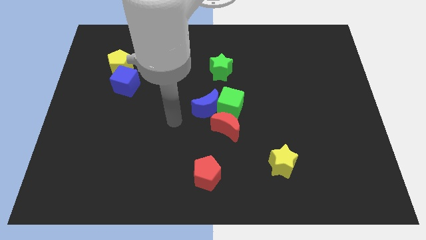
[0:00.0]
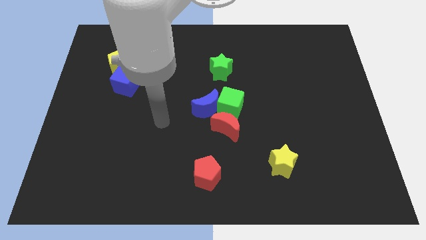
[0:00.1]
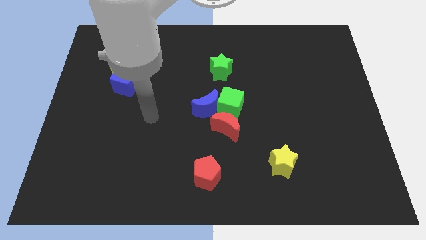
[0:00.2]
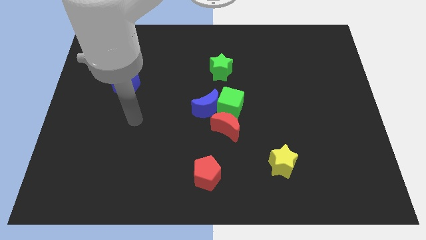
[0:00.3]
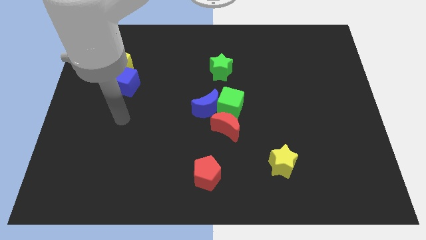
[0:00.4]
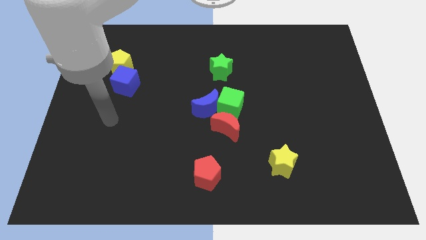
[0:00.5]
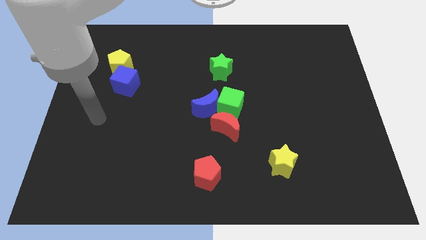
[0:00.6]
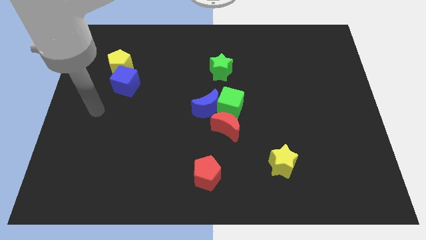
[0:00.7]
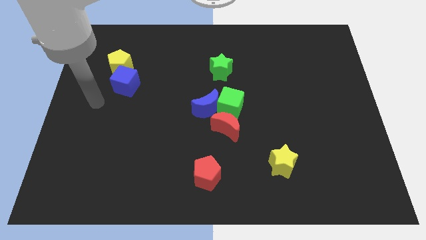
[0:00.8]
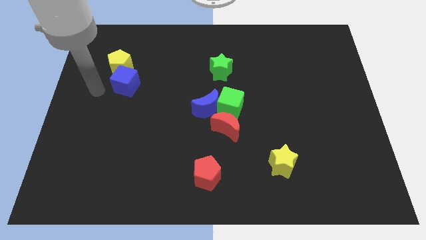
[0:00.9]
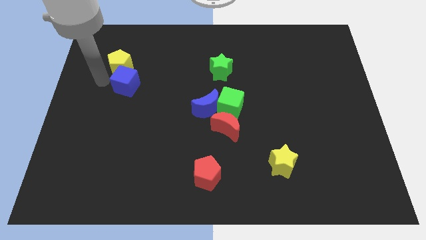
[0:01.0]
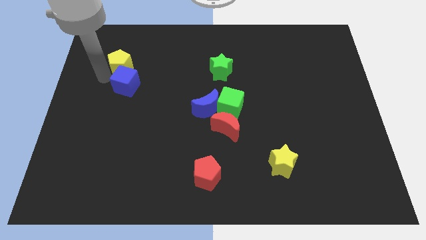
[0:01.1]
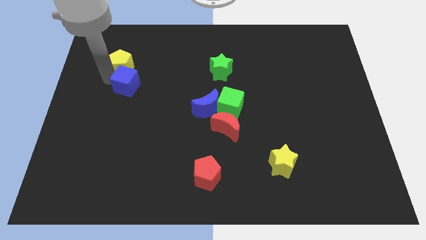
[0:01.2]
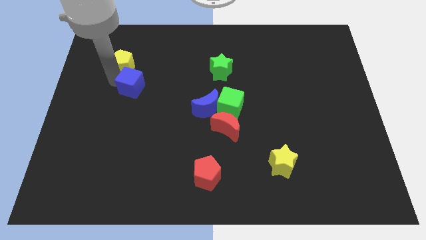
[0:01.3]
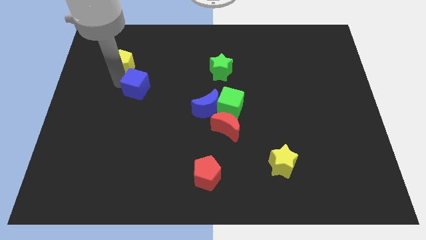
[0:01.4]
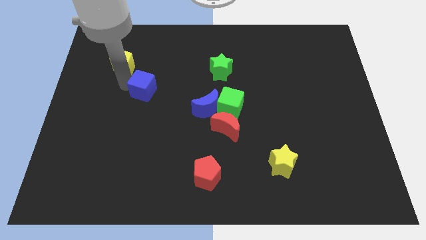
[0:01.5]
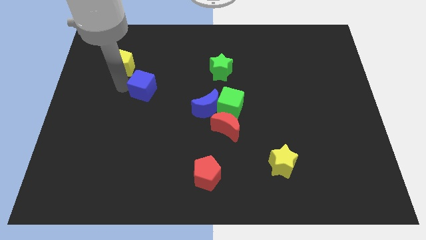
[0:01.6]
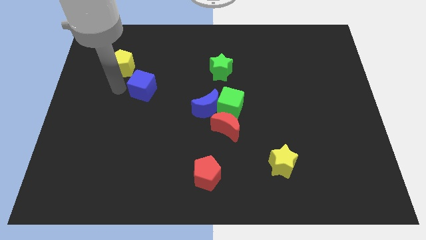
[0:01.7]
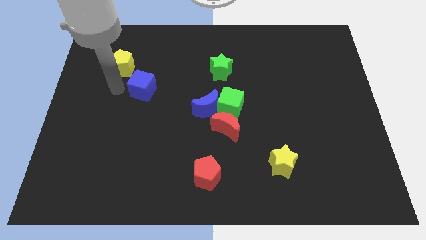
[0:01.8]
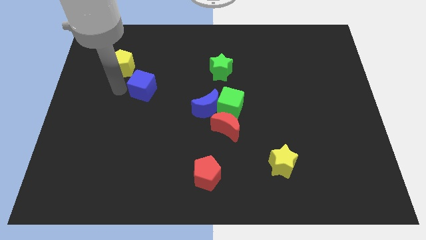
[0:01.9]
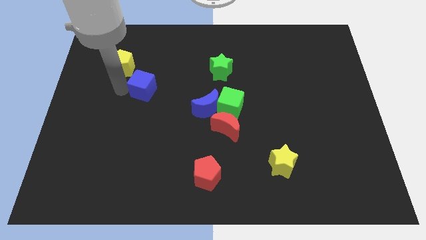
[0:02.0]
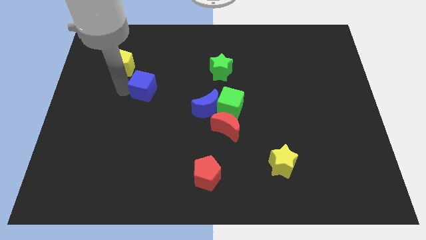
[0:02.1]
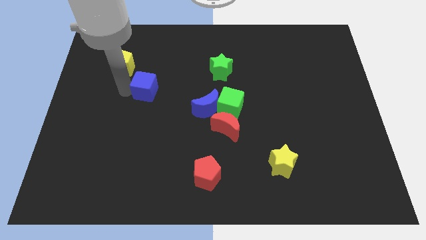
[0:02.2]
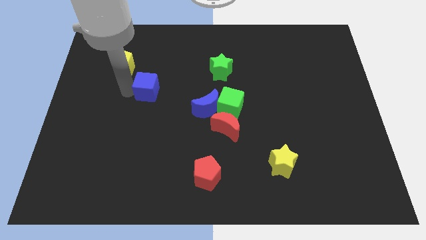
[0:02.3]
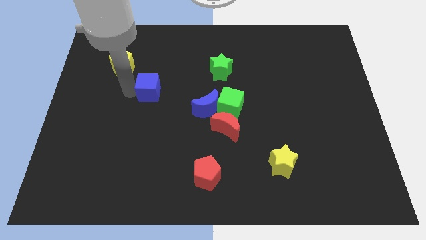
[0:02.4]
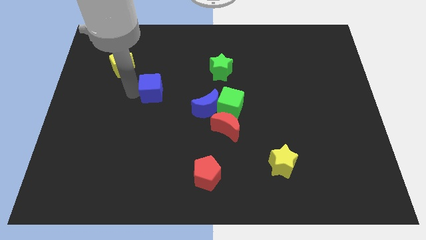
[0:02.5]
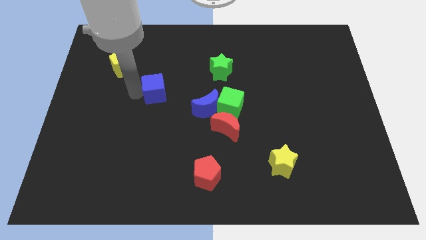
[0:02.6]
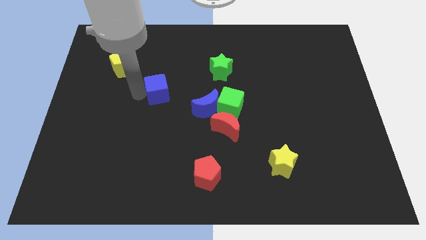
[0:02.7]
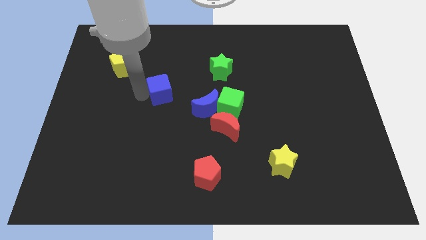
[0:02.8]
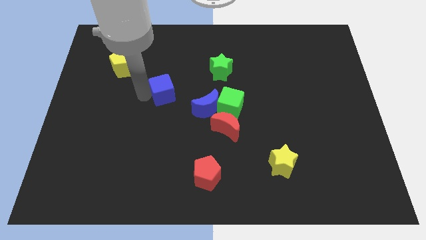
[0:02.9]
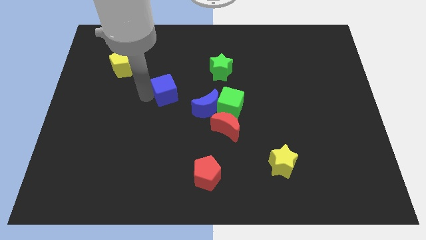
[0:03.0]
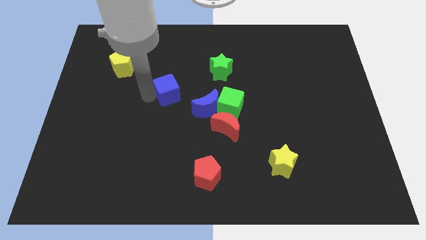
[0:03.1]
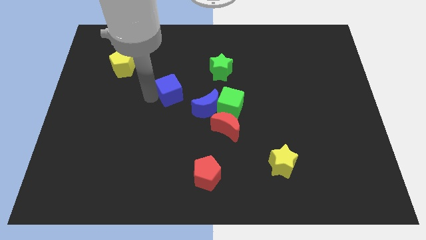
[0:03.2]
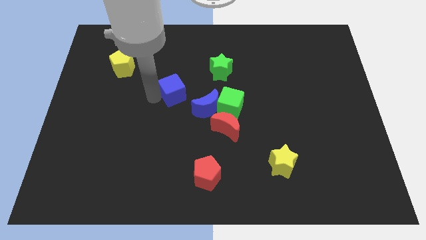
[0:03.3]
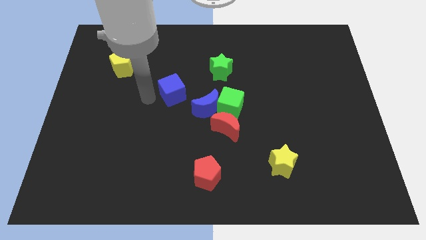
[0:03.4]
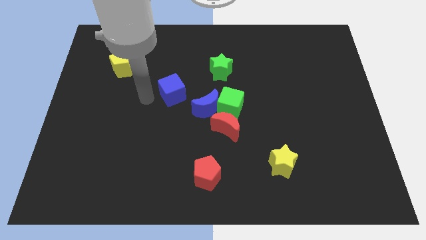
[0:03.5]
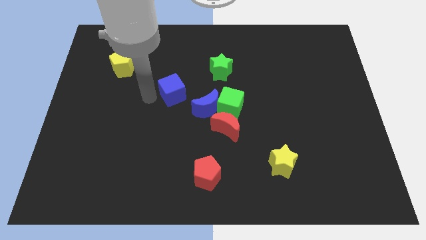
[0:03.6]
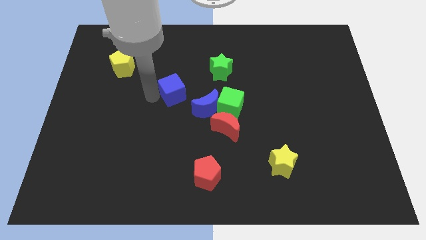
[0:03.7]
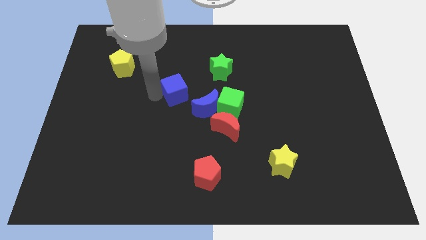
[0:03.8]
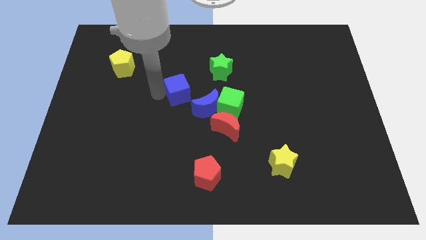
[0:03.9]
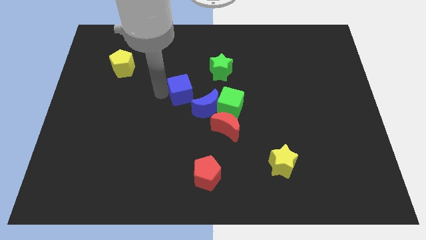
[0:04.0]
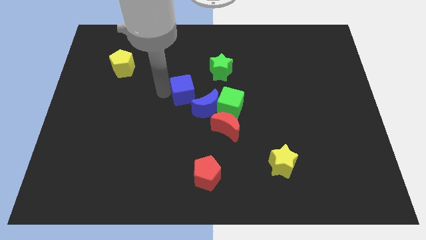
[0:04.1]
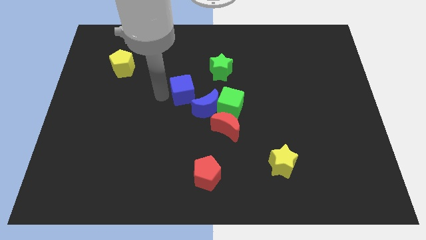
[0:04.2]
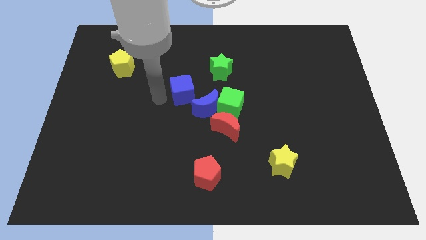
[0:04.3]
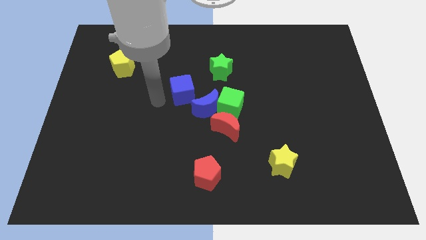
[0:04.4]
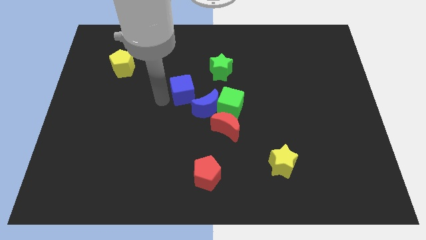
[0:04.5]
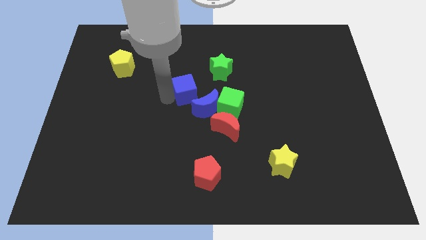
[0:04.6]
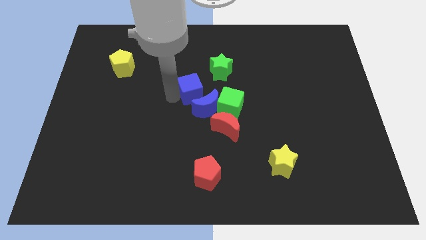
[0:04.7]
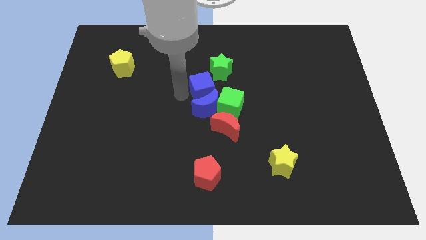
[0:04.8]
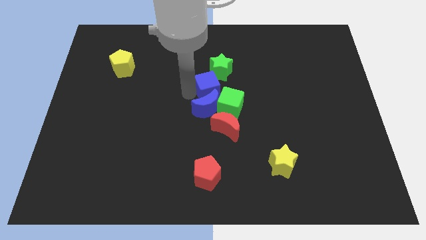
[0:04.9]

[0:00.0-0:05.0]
move the blue cube to the right

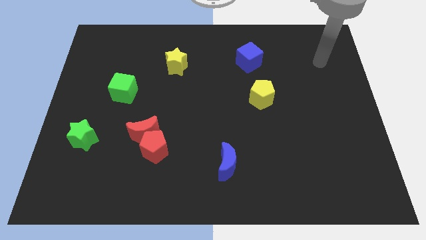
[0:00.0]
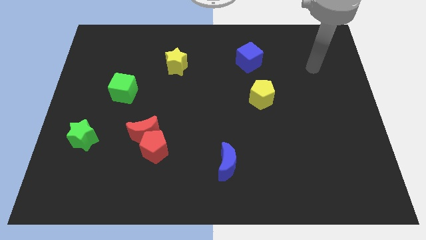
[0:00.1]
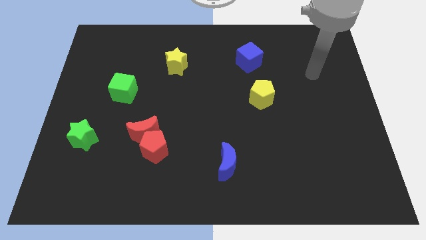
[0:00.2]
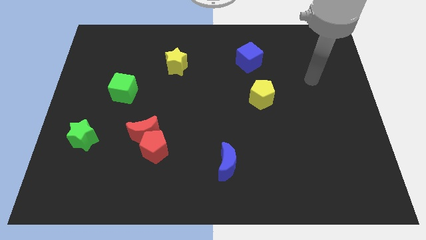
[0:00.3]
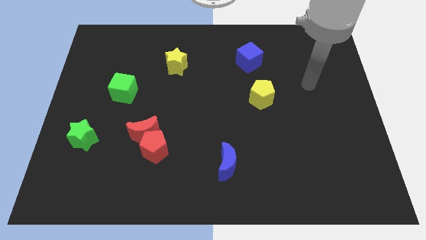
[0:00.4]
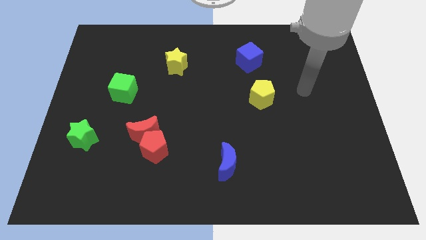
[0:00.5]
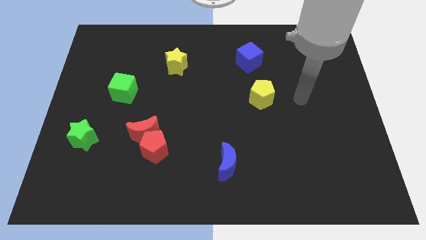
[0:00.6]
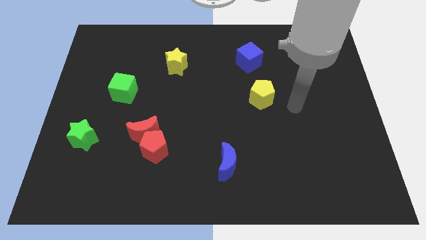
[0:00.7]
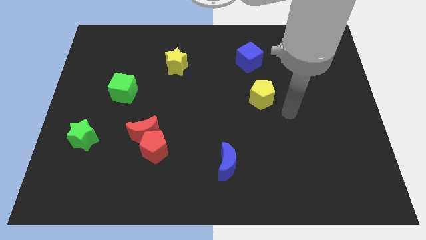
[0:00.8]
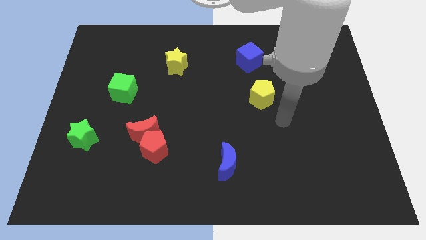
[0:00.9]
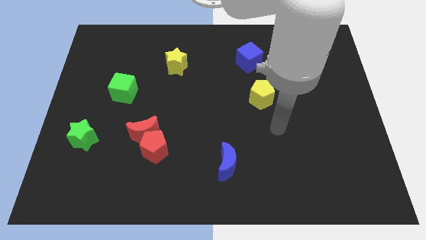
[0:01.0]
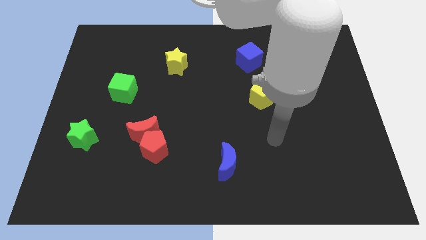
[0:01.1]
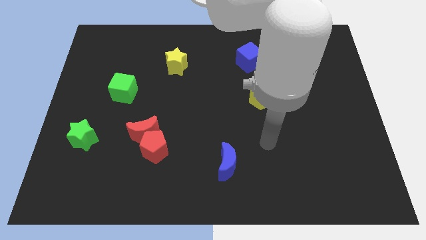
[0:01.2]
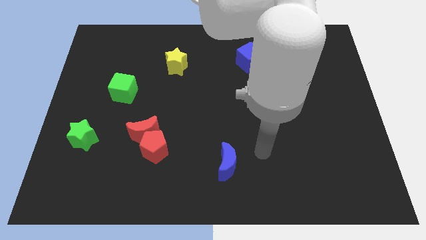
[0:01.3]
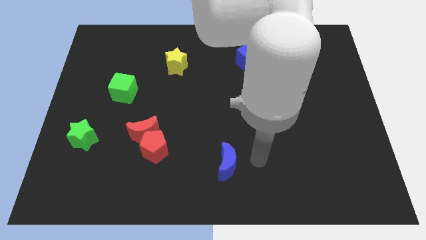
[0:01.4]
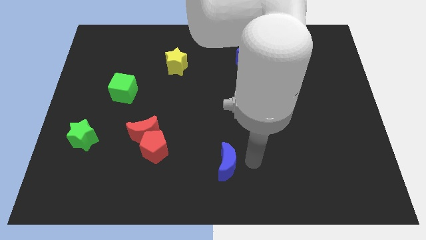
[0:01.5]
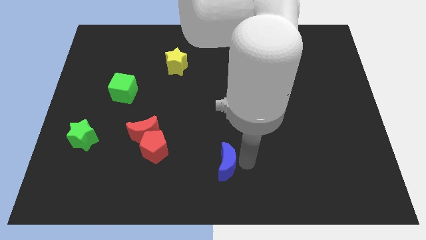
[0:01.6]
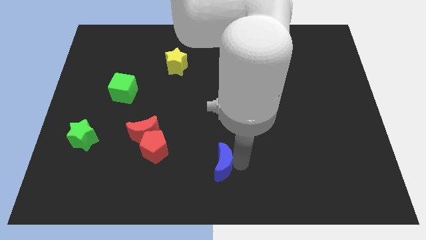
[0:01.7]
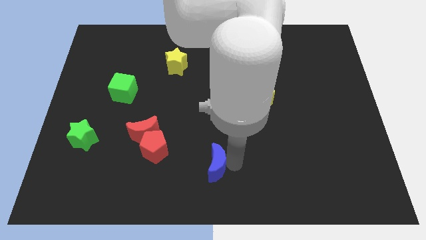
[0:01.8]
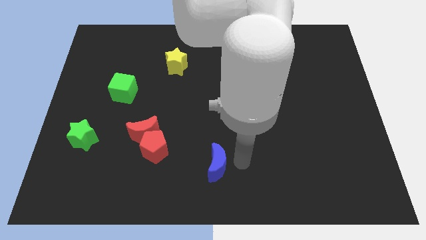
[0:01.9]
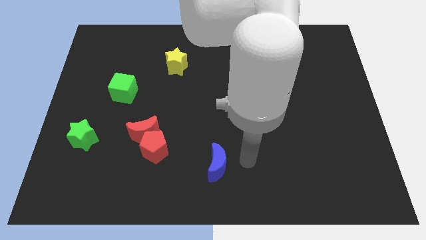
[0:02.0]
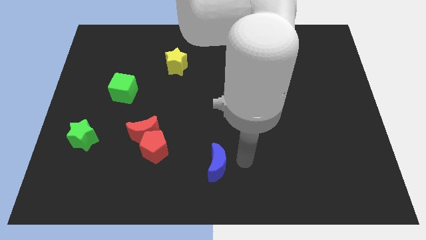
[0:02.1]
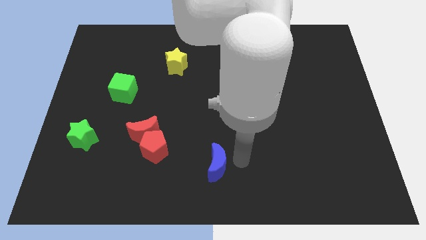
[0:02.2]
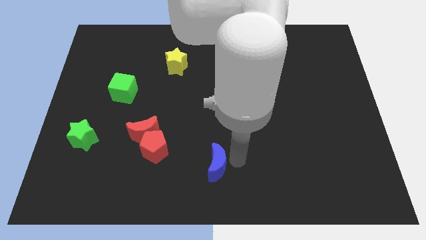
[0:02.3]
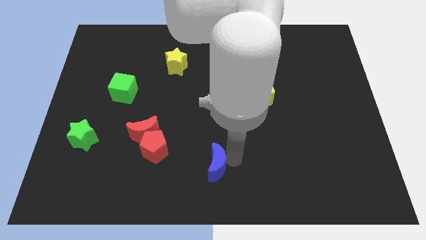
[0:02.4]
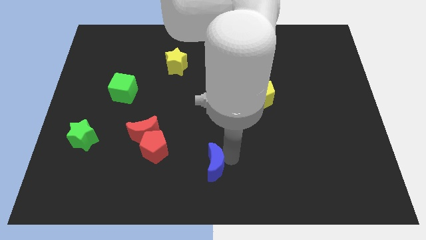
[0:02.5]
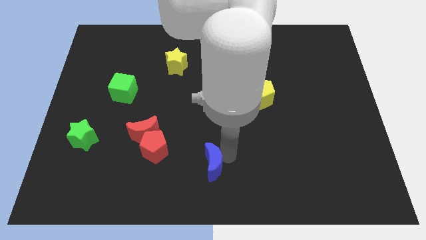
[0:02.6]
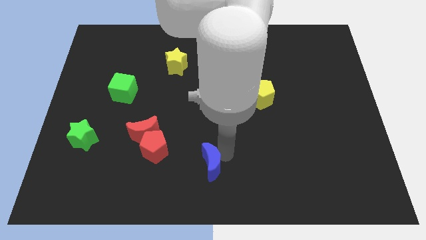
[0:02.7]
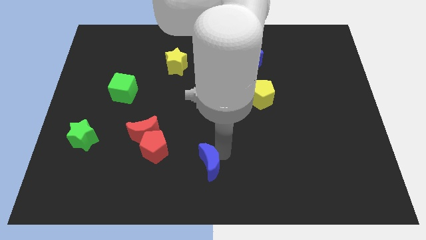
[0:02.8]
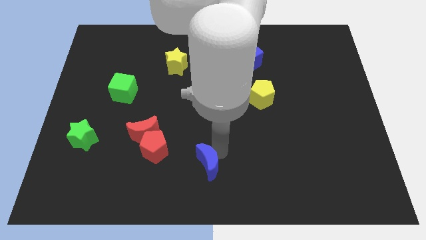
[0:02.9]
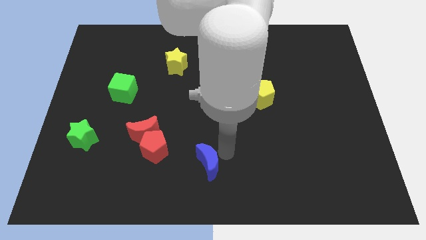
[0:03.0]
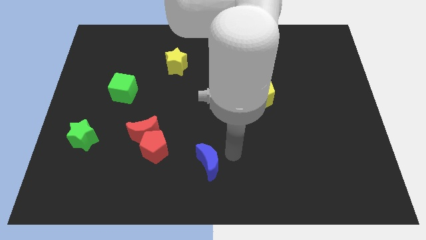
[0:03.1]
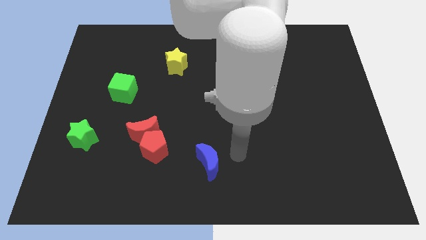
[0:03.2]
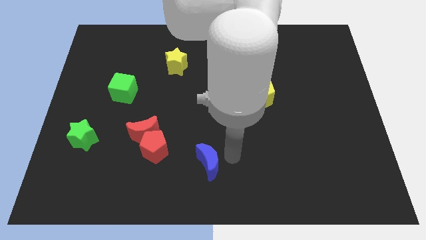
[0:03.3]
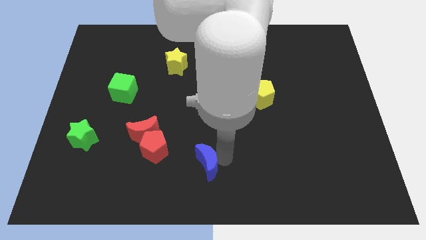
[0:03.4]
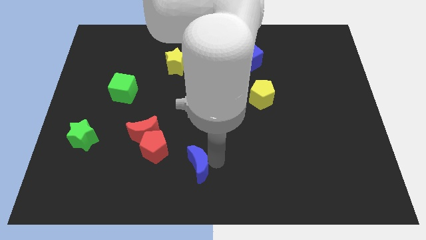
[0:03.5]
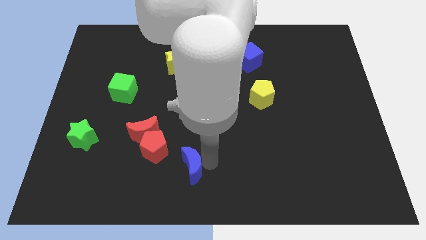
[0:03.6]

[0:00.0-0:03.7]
push the blue moon left a little
